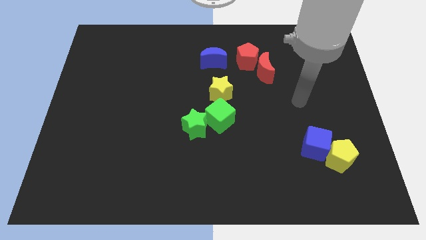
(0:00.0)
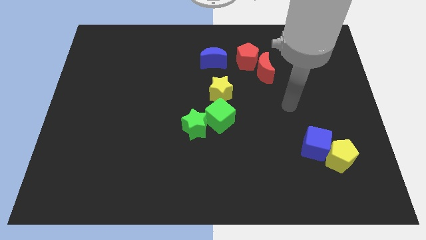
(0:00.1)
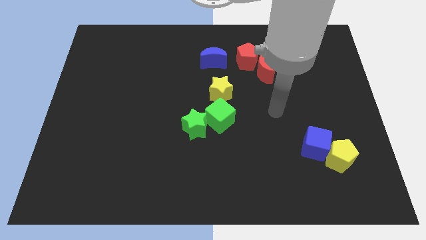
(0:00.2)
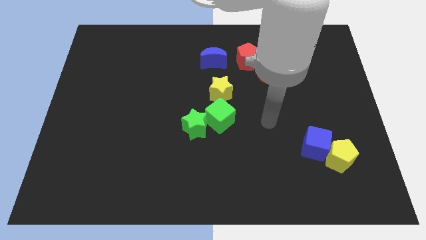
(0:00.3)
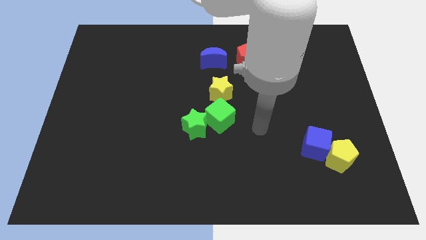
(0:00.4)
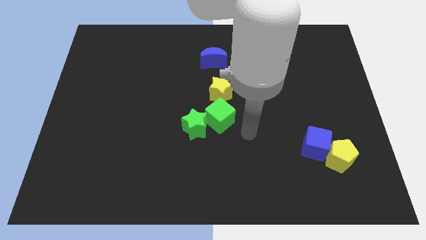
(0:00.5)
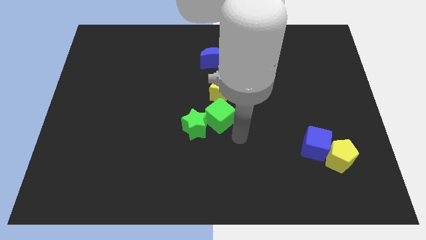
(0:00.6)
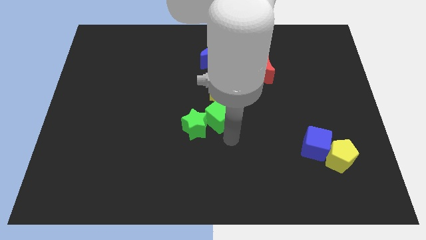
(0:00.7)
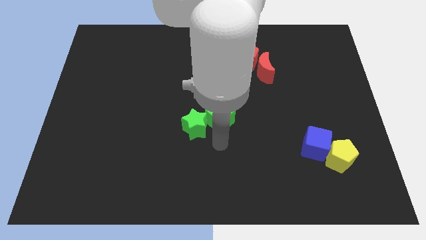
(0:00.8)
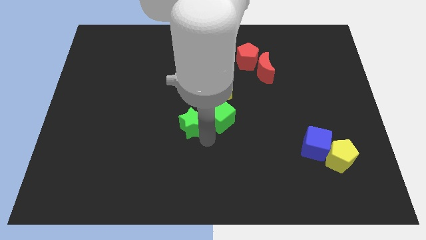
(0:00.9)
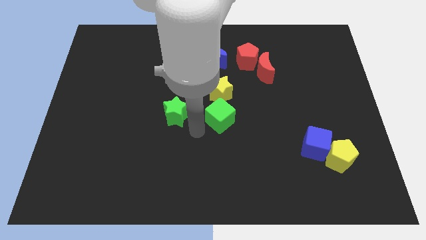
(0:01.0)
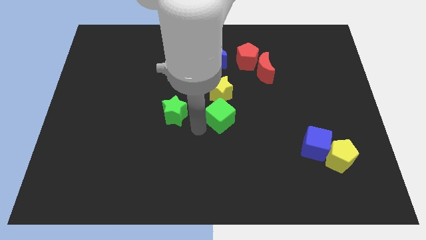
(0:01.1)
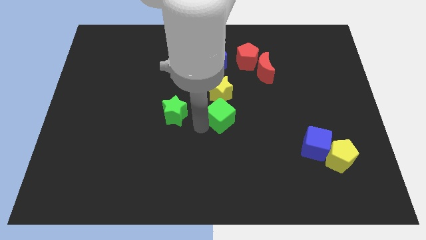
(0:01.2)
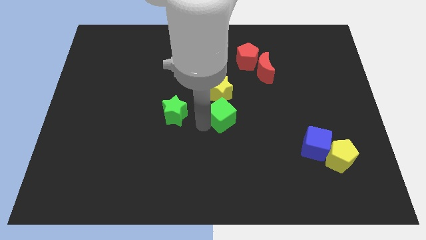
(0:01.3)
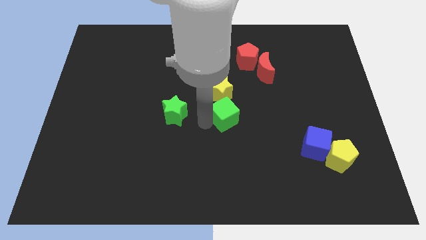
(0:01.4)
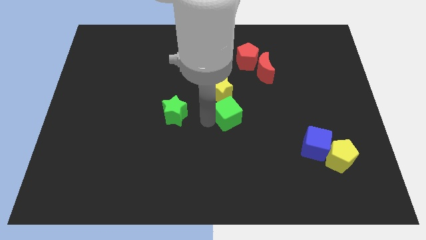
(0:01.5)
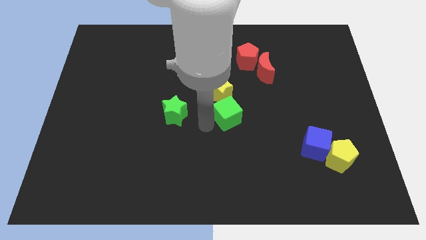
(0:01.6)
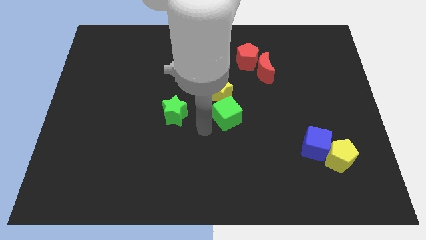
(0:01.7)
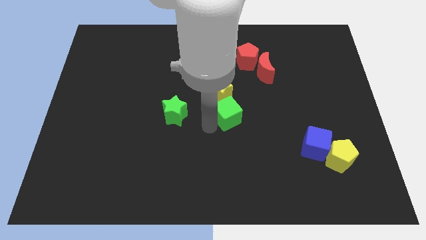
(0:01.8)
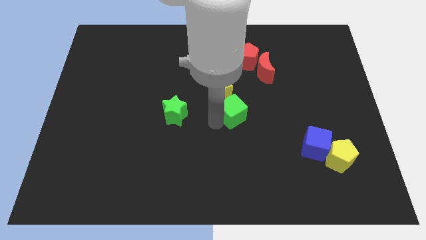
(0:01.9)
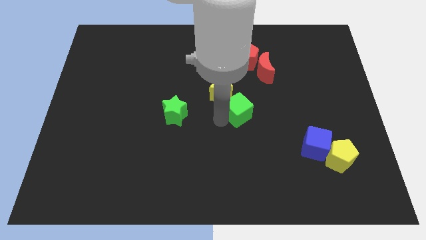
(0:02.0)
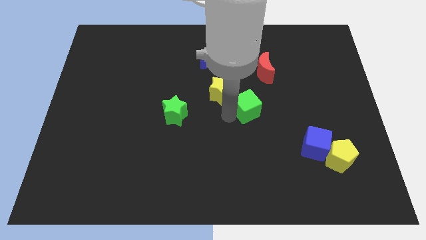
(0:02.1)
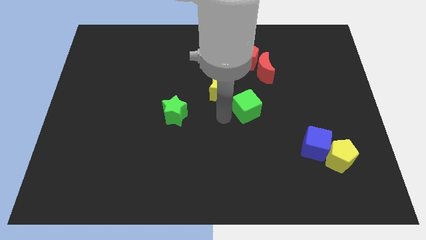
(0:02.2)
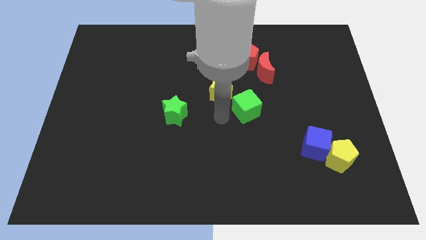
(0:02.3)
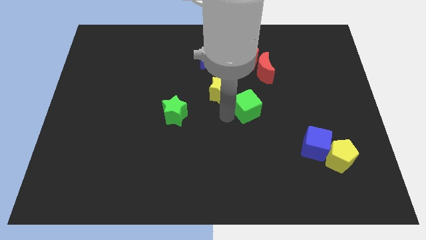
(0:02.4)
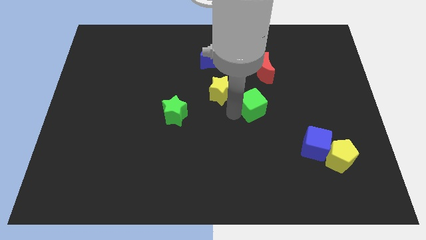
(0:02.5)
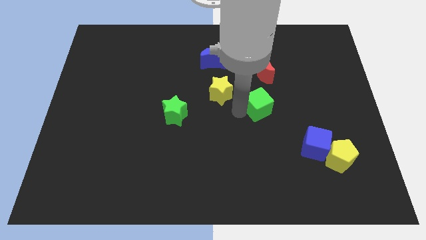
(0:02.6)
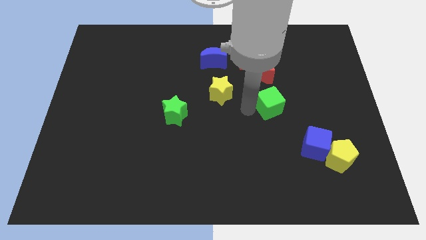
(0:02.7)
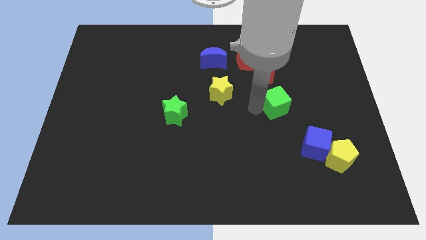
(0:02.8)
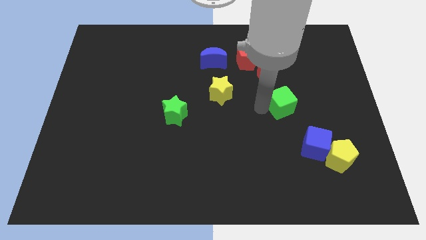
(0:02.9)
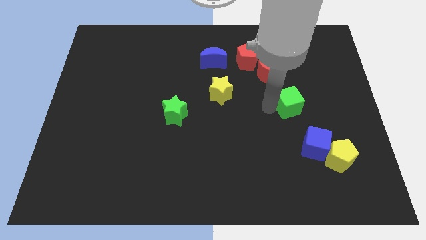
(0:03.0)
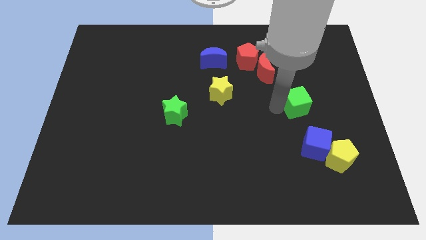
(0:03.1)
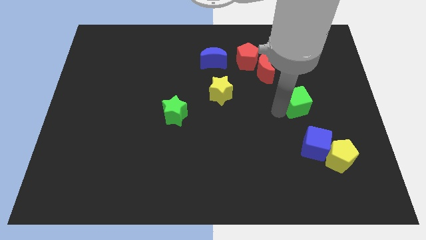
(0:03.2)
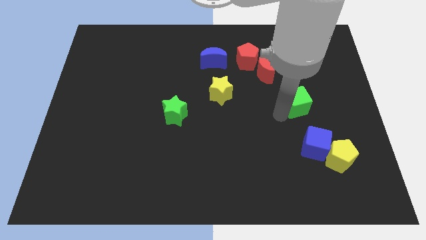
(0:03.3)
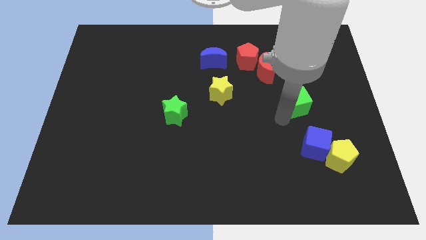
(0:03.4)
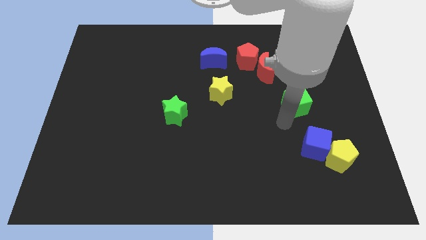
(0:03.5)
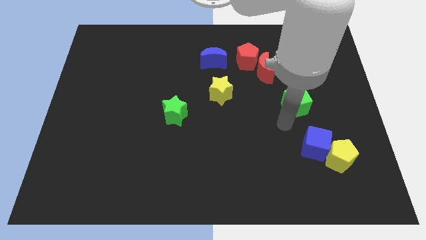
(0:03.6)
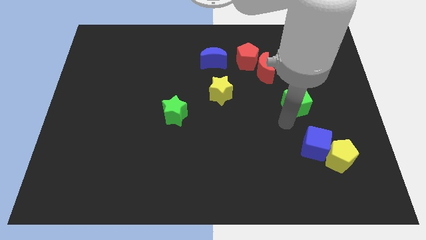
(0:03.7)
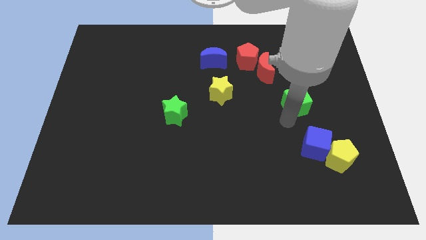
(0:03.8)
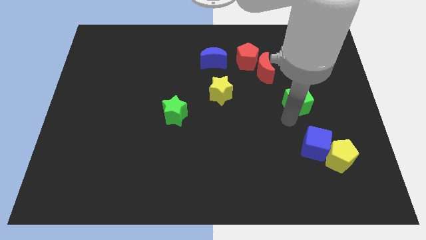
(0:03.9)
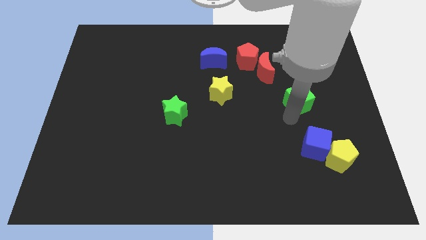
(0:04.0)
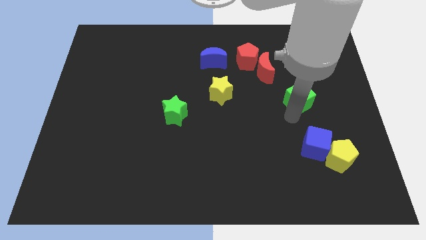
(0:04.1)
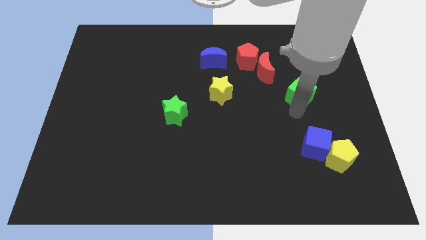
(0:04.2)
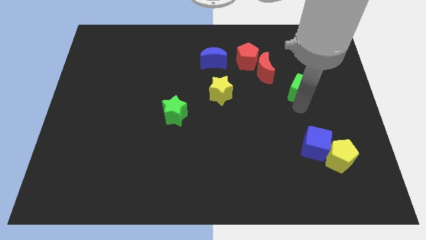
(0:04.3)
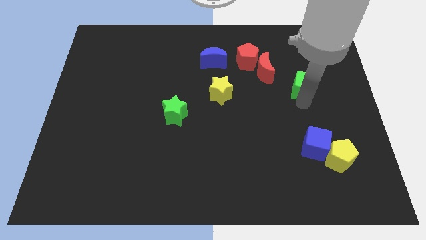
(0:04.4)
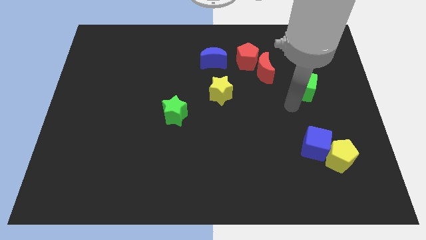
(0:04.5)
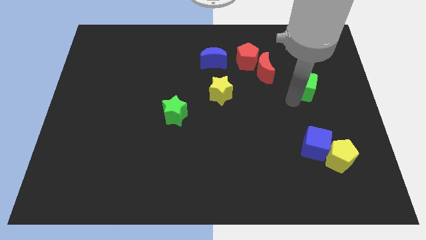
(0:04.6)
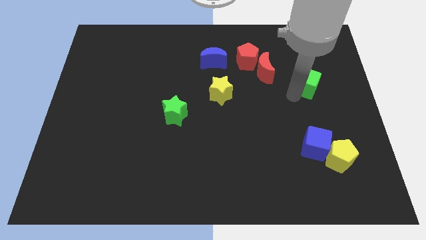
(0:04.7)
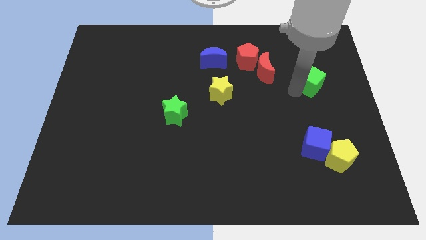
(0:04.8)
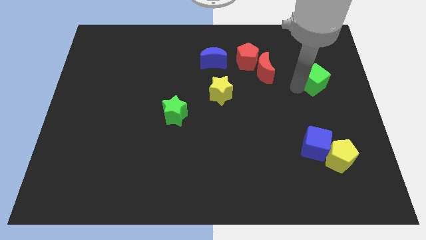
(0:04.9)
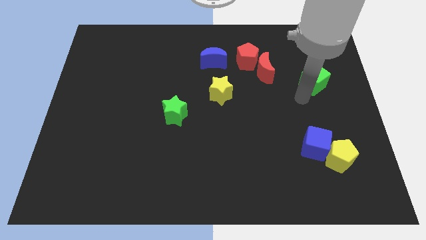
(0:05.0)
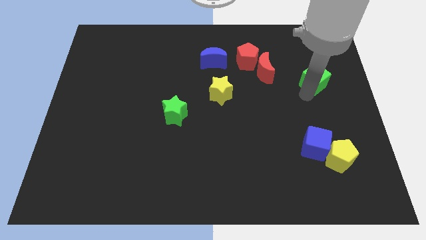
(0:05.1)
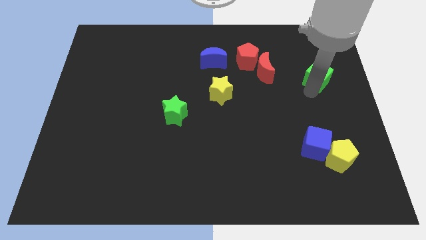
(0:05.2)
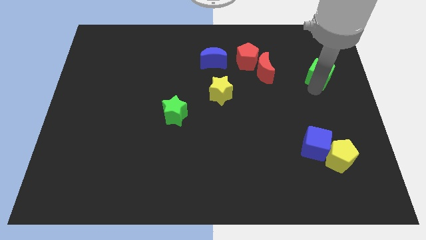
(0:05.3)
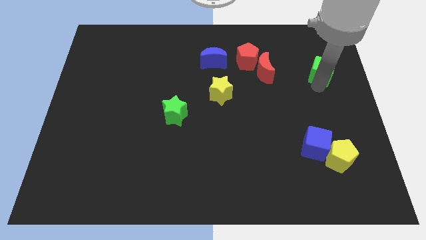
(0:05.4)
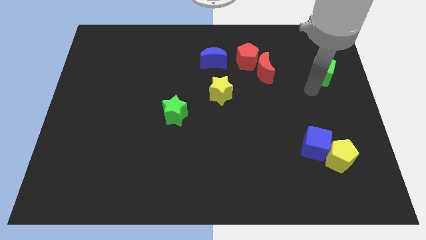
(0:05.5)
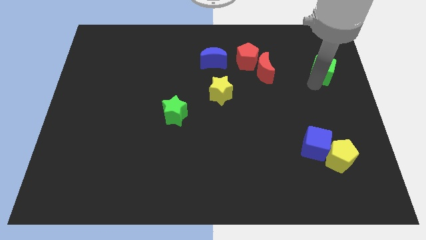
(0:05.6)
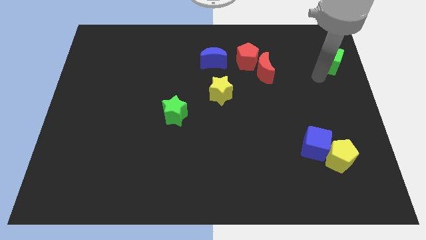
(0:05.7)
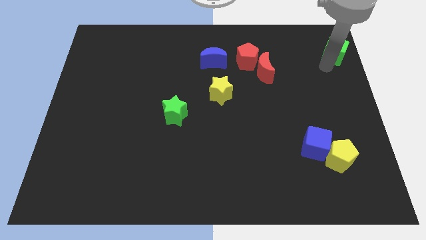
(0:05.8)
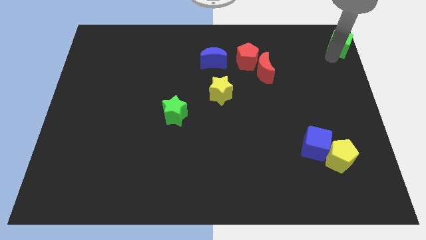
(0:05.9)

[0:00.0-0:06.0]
slide the green cube to the top right

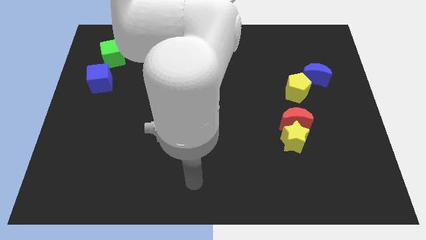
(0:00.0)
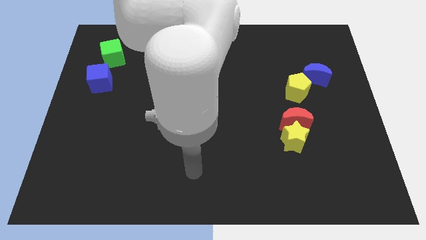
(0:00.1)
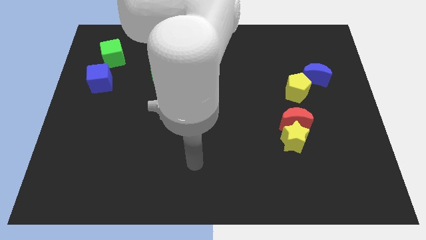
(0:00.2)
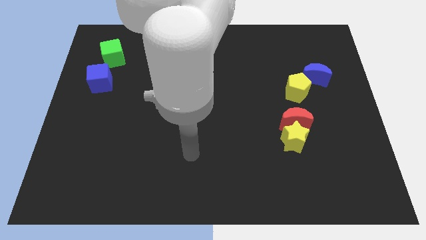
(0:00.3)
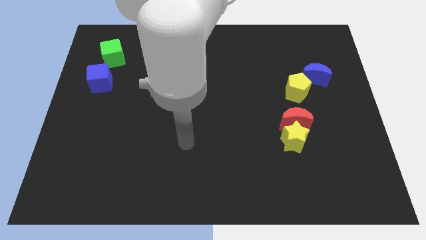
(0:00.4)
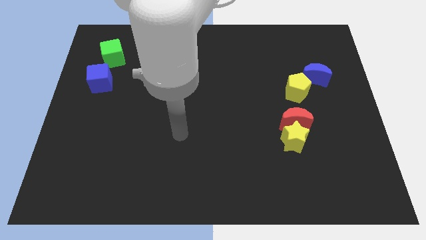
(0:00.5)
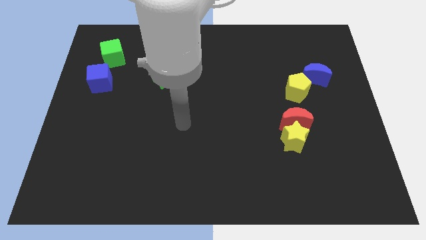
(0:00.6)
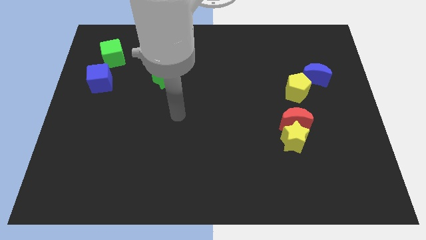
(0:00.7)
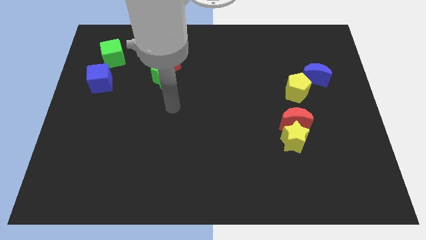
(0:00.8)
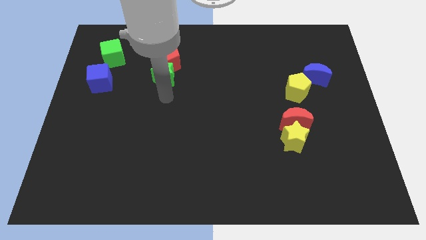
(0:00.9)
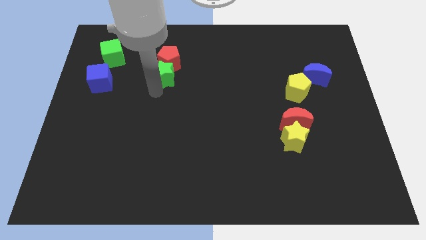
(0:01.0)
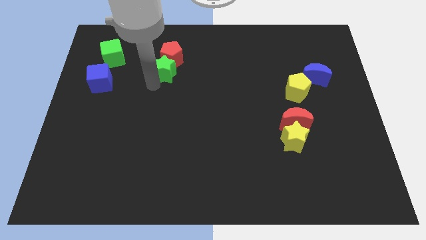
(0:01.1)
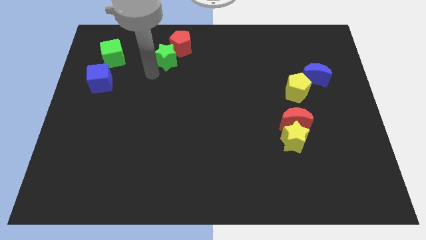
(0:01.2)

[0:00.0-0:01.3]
slide the red pentagon to the top

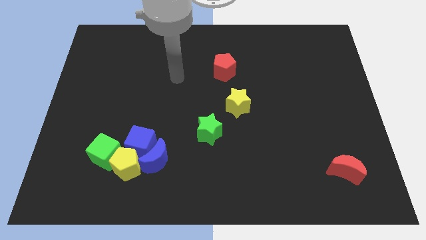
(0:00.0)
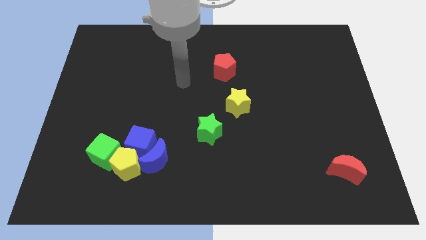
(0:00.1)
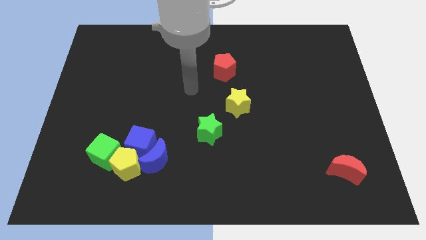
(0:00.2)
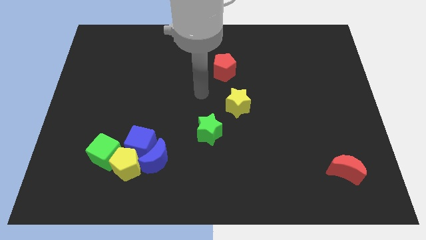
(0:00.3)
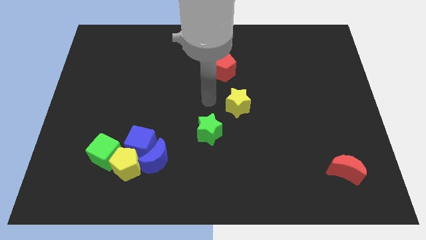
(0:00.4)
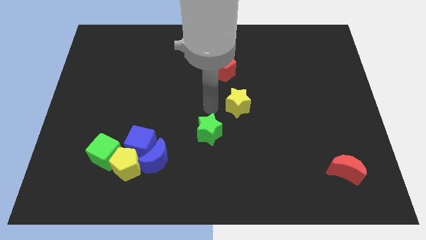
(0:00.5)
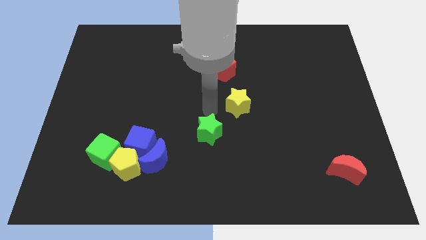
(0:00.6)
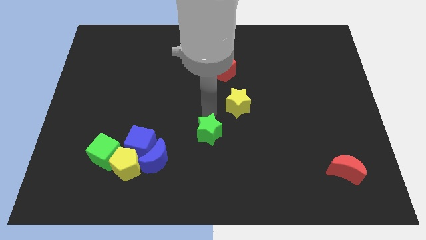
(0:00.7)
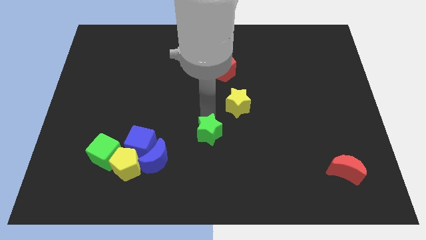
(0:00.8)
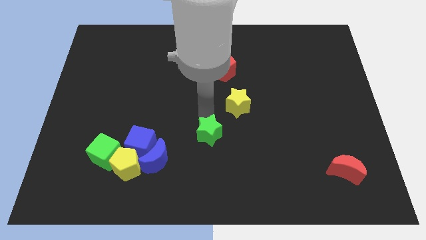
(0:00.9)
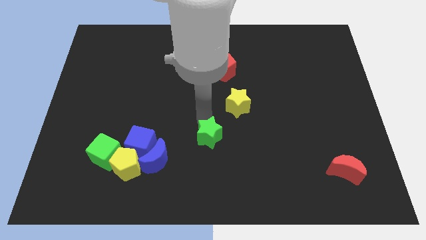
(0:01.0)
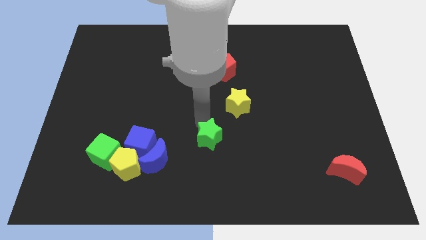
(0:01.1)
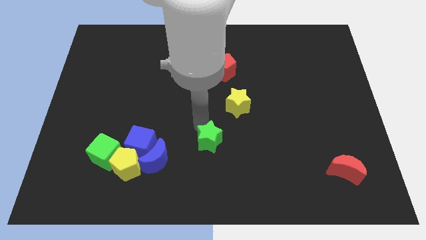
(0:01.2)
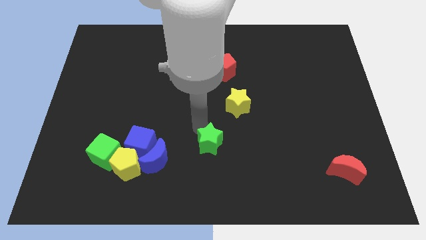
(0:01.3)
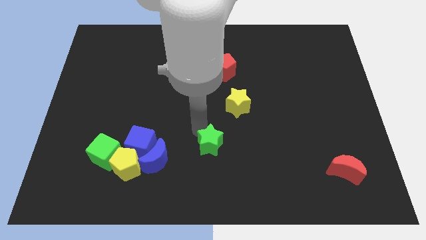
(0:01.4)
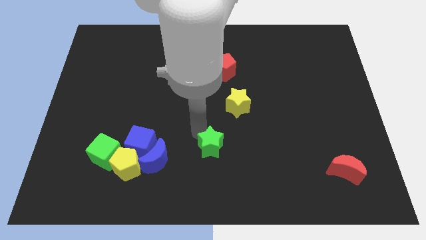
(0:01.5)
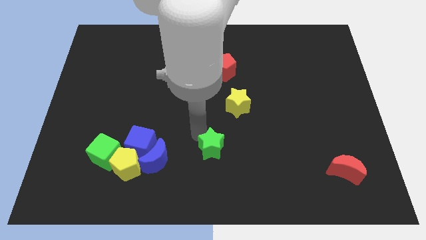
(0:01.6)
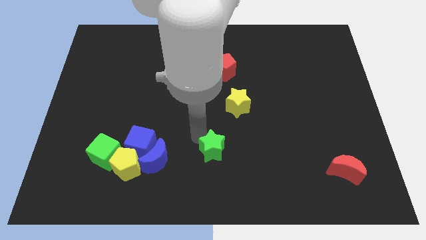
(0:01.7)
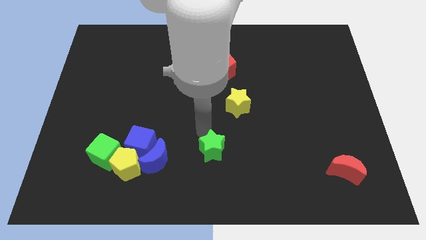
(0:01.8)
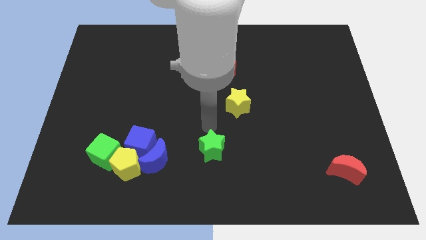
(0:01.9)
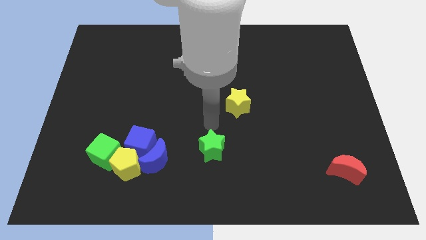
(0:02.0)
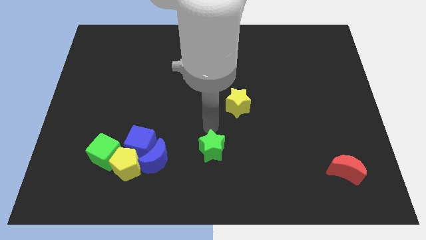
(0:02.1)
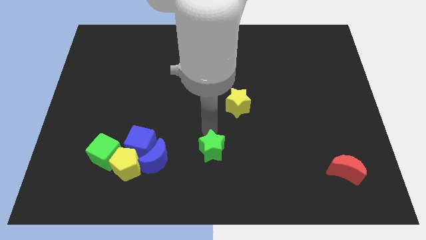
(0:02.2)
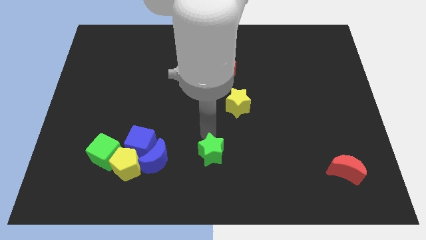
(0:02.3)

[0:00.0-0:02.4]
push the green star to the bottom
